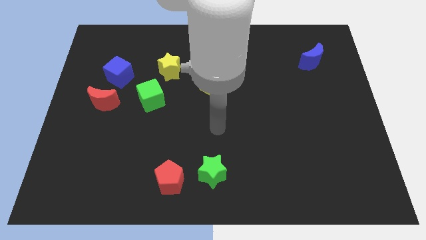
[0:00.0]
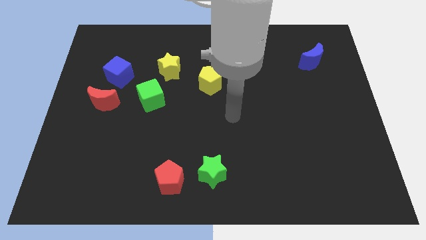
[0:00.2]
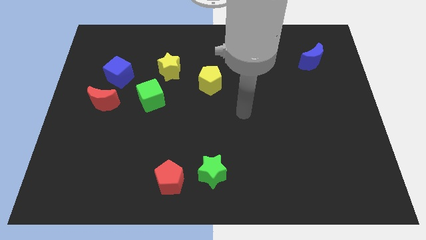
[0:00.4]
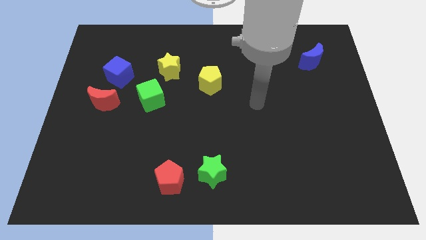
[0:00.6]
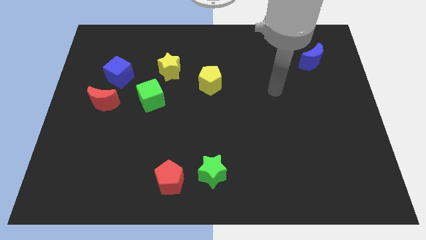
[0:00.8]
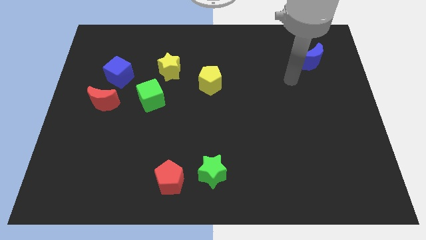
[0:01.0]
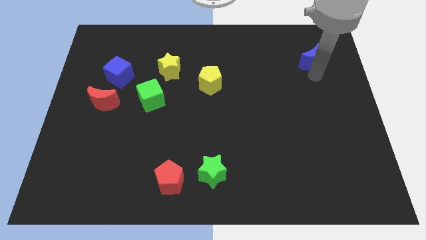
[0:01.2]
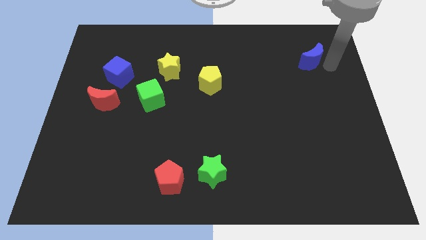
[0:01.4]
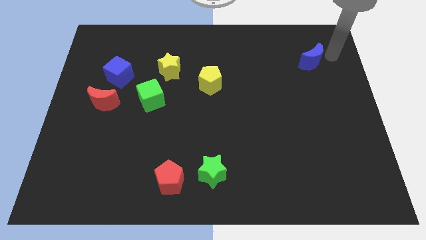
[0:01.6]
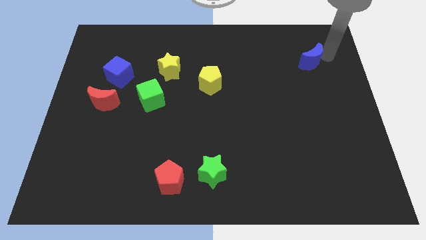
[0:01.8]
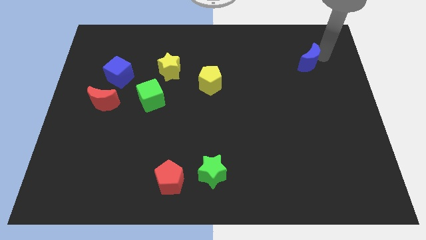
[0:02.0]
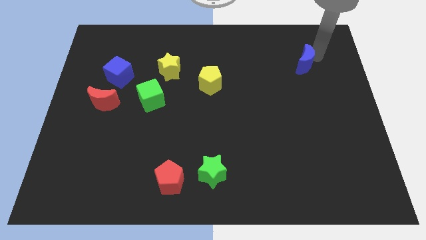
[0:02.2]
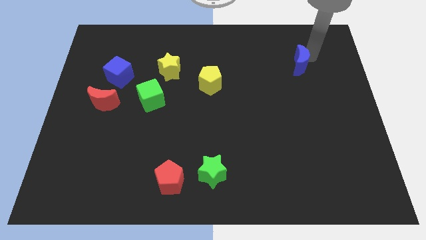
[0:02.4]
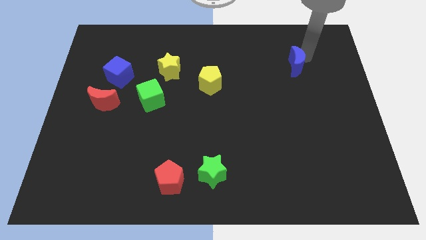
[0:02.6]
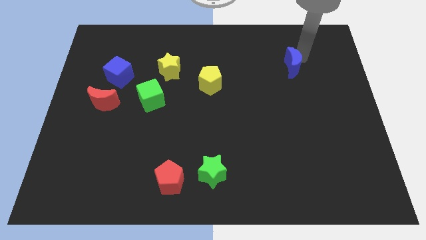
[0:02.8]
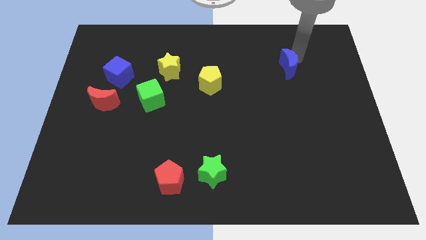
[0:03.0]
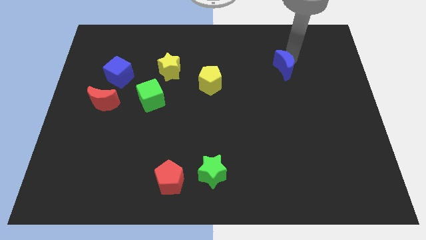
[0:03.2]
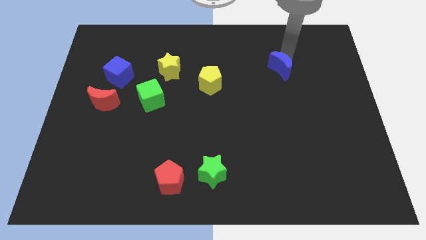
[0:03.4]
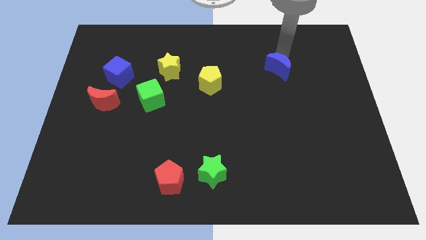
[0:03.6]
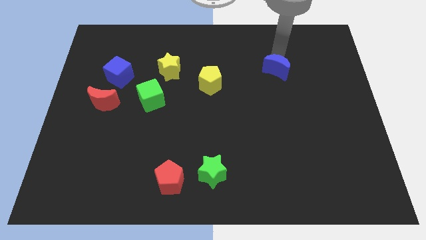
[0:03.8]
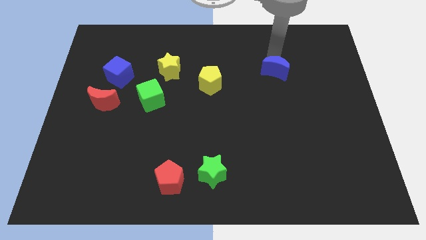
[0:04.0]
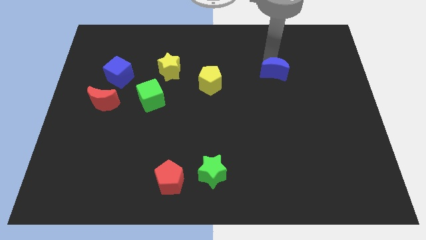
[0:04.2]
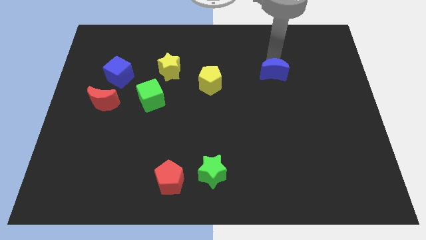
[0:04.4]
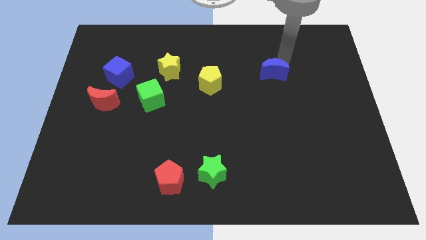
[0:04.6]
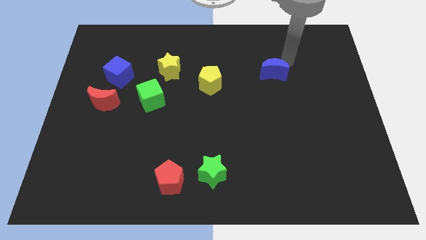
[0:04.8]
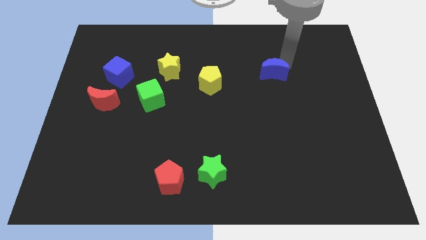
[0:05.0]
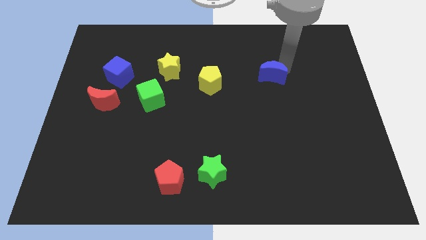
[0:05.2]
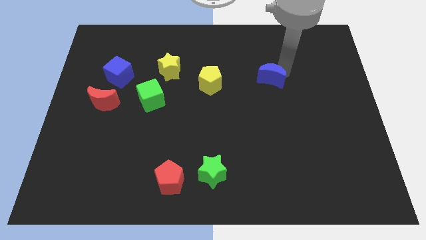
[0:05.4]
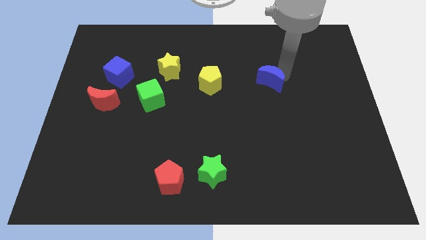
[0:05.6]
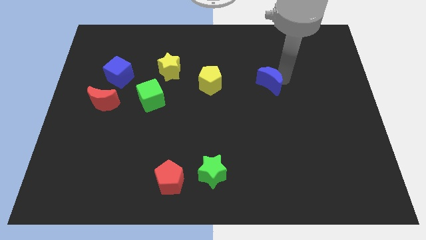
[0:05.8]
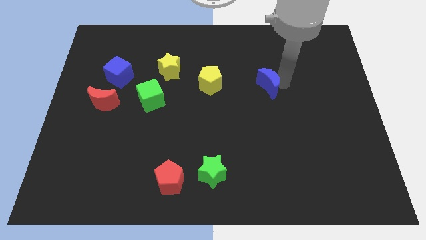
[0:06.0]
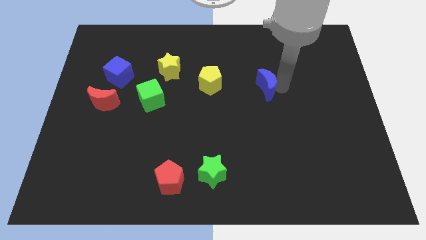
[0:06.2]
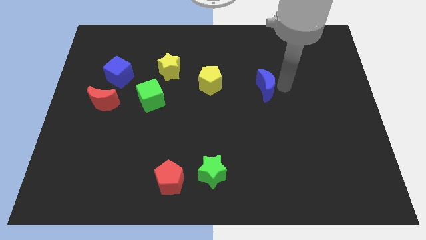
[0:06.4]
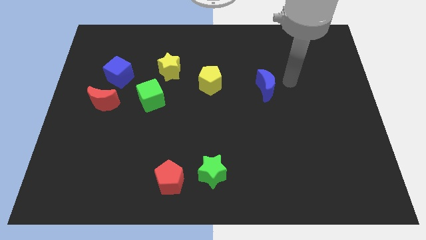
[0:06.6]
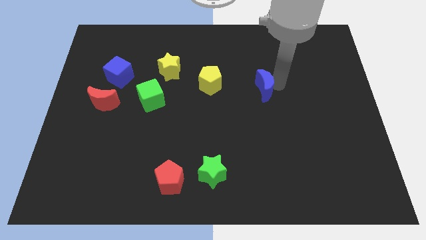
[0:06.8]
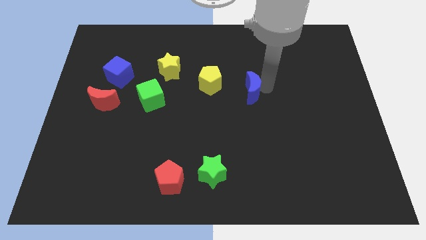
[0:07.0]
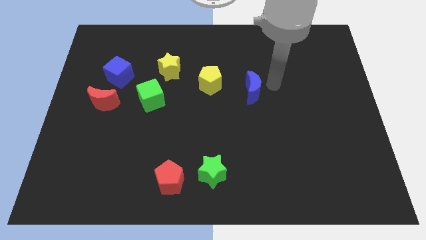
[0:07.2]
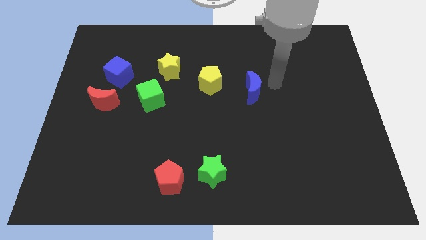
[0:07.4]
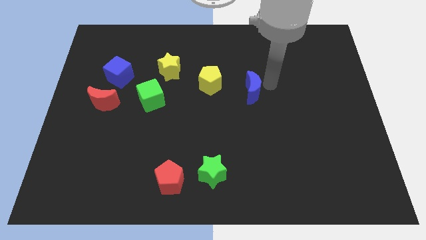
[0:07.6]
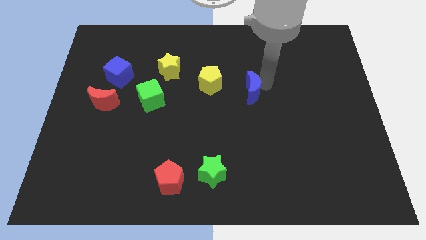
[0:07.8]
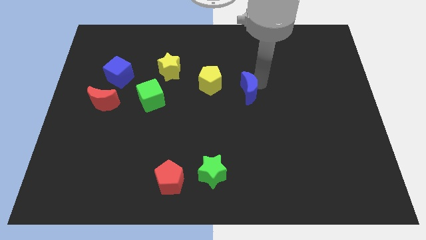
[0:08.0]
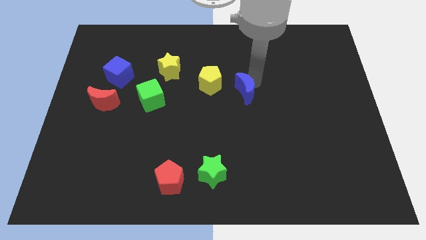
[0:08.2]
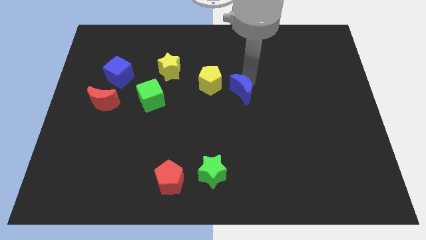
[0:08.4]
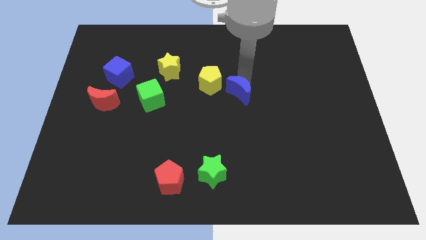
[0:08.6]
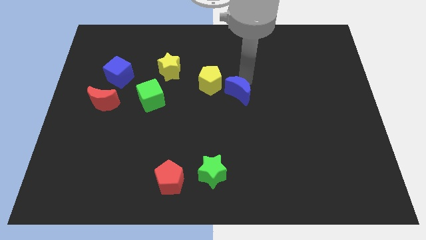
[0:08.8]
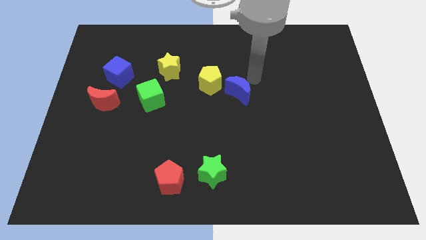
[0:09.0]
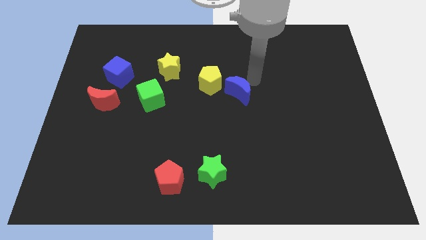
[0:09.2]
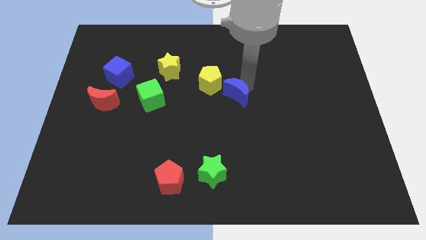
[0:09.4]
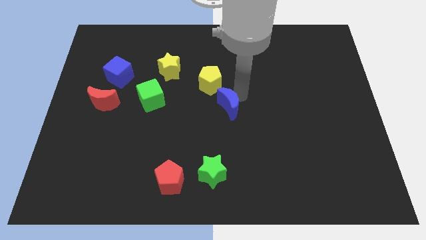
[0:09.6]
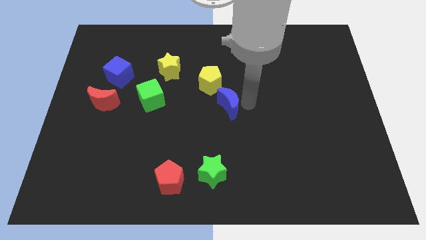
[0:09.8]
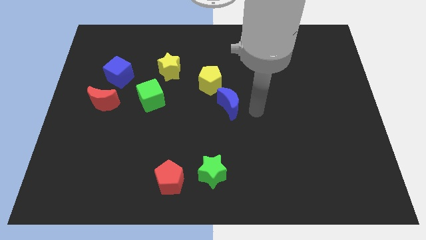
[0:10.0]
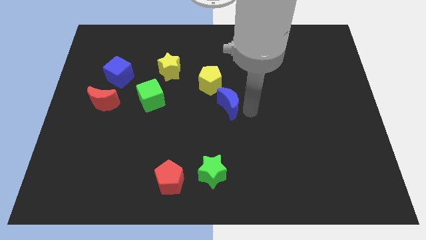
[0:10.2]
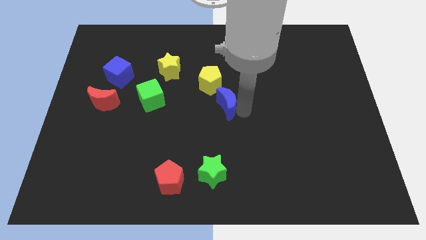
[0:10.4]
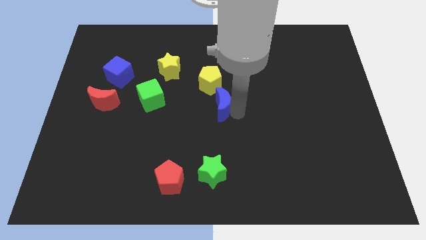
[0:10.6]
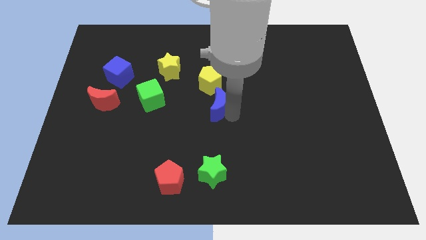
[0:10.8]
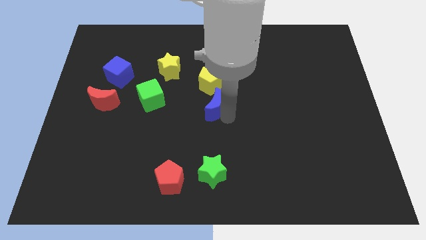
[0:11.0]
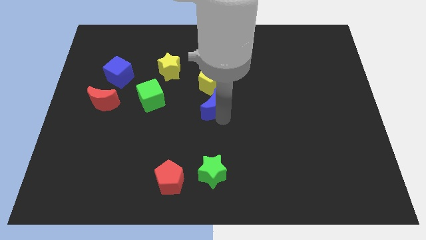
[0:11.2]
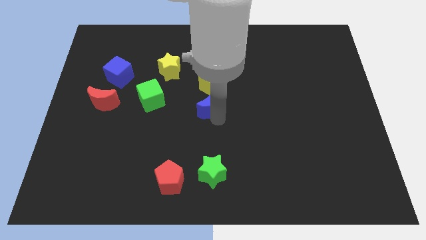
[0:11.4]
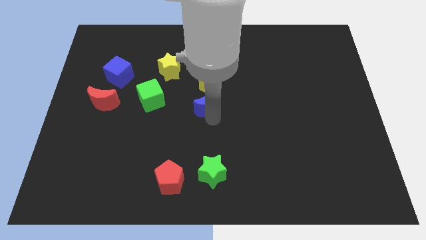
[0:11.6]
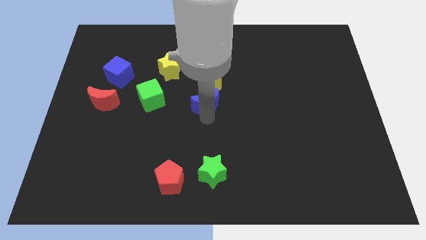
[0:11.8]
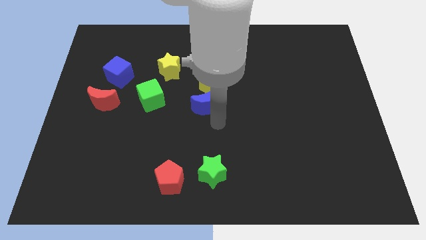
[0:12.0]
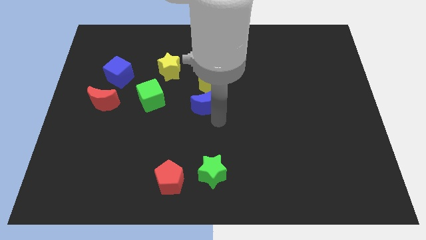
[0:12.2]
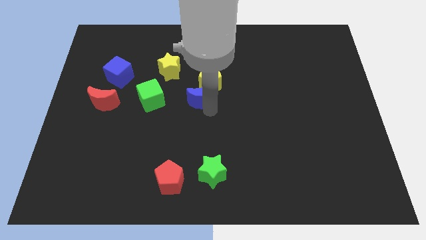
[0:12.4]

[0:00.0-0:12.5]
push the blue moon to the bottom right side of the yellow star

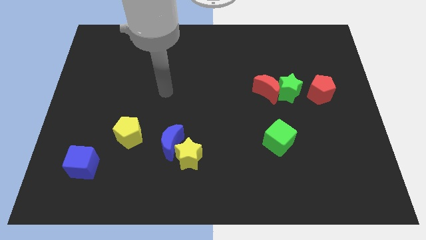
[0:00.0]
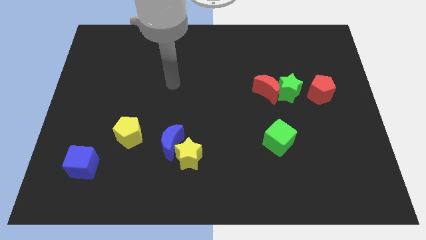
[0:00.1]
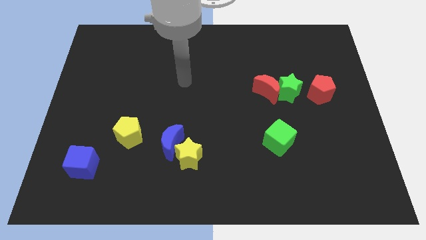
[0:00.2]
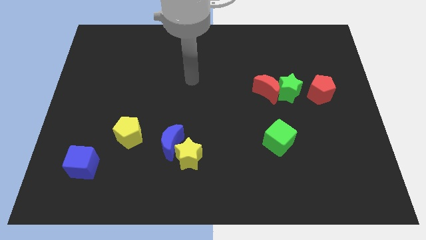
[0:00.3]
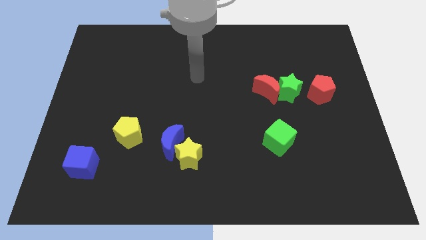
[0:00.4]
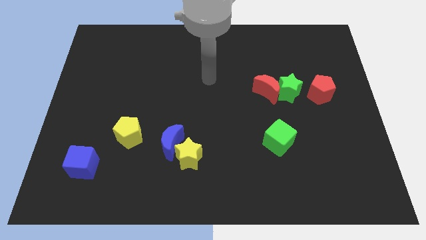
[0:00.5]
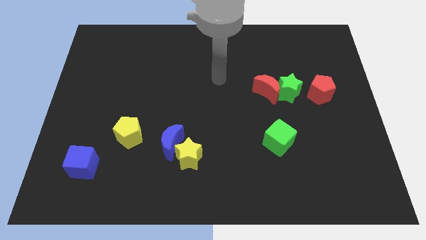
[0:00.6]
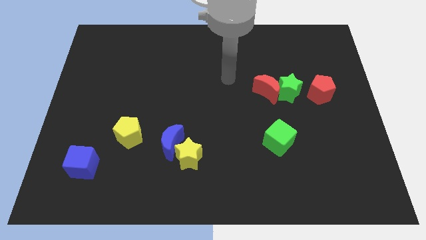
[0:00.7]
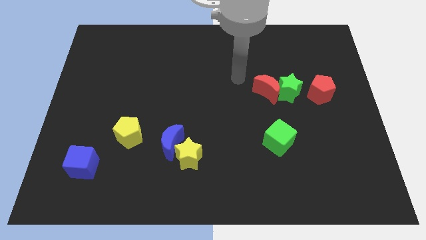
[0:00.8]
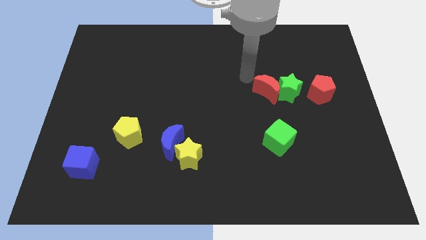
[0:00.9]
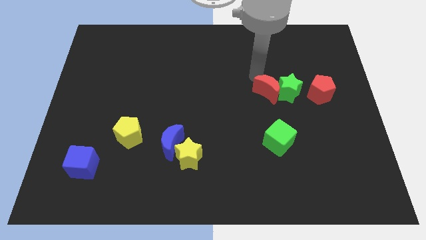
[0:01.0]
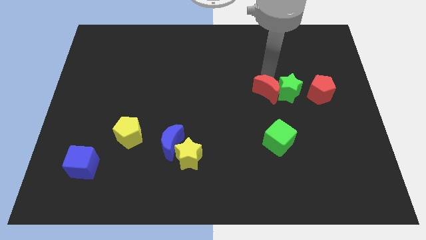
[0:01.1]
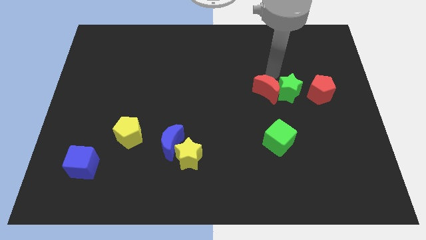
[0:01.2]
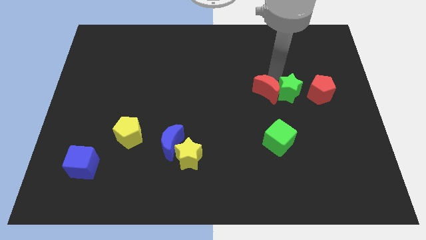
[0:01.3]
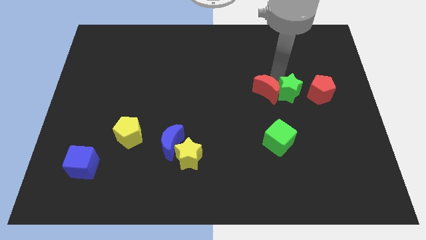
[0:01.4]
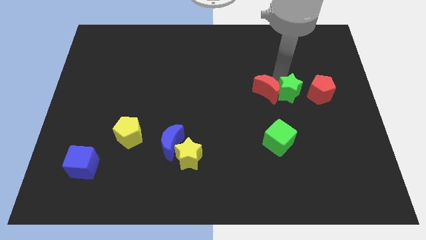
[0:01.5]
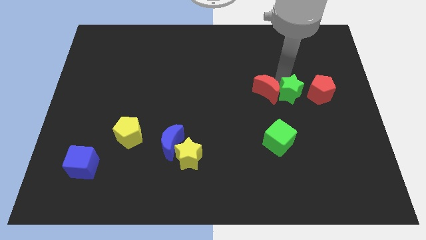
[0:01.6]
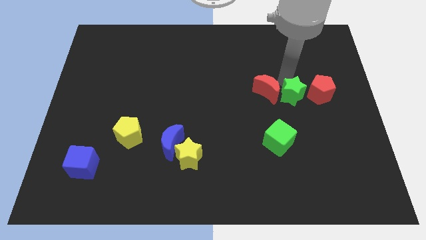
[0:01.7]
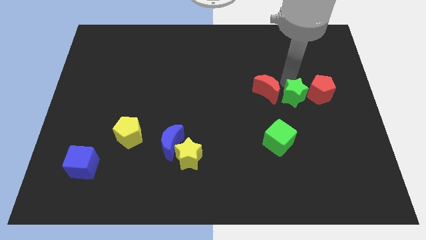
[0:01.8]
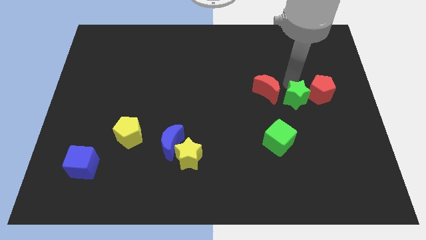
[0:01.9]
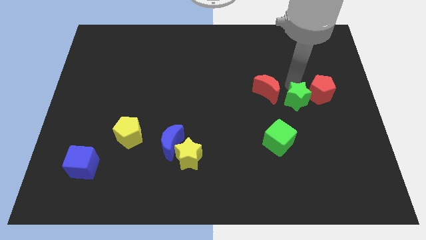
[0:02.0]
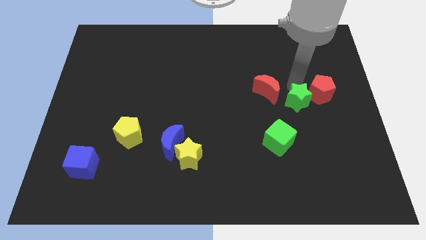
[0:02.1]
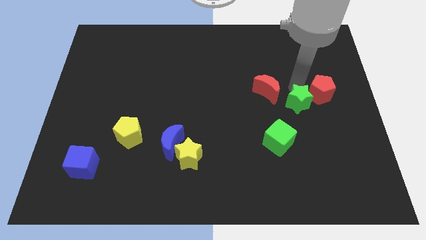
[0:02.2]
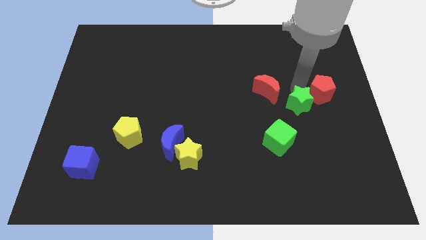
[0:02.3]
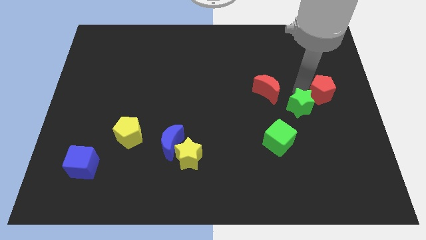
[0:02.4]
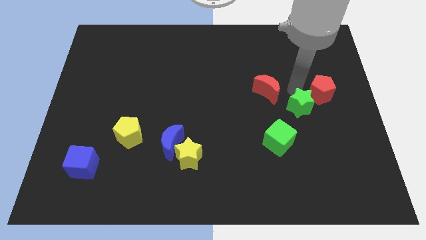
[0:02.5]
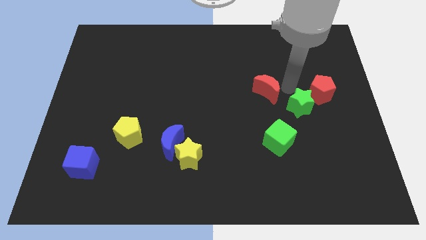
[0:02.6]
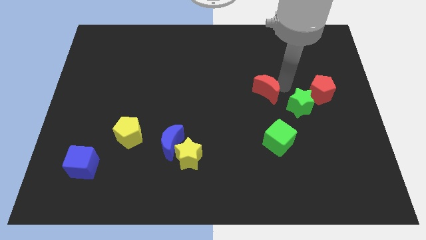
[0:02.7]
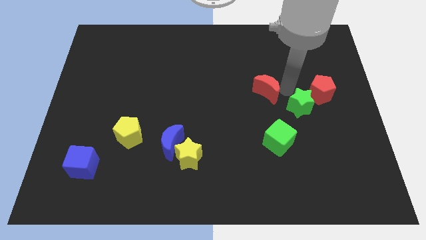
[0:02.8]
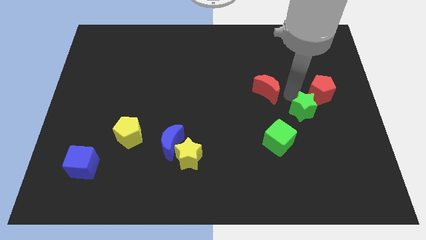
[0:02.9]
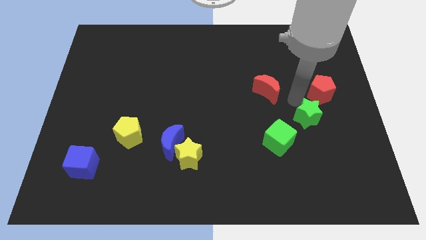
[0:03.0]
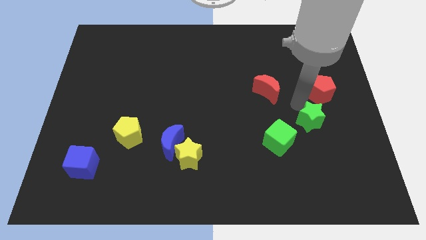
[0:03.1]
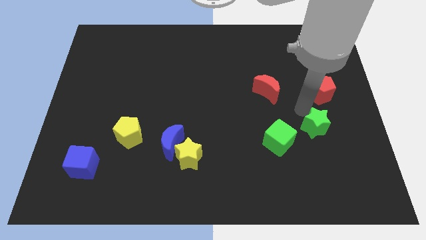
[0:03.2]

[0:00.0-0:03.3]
move the green star to the right side of the green cube
